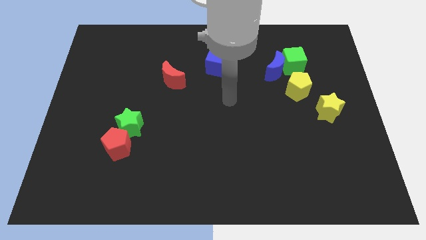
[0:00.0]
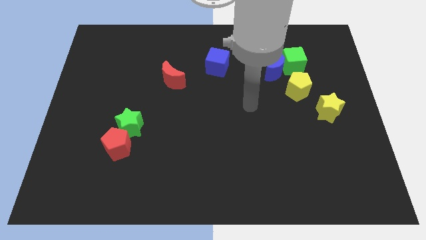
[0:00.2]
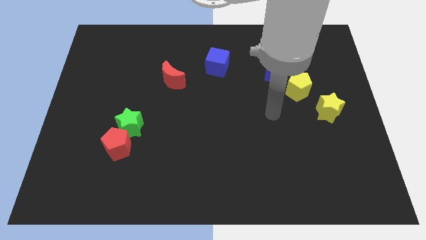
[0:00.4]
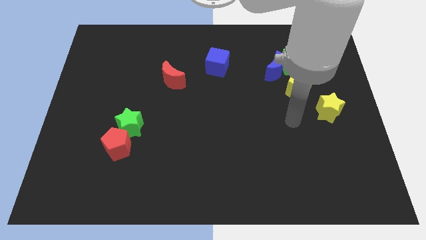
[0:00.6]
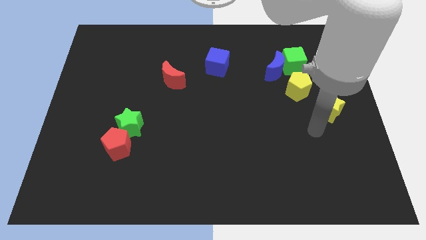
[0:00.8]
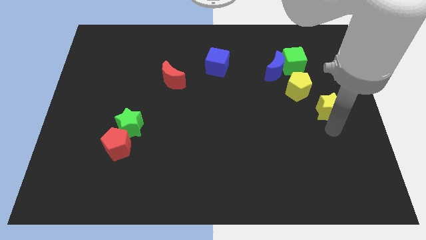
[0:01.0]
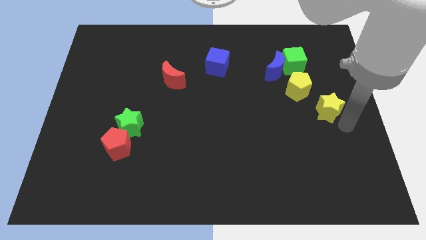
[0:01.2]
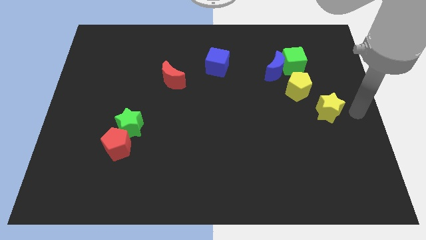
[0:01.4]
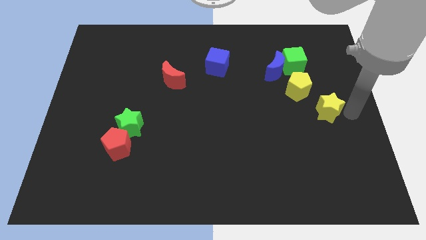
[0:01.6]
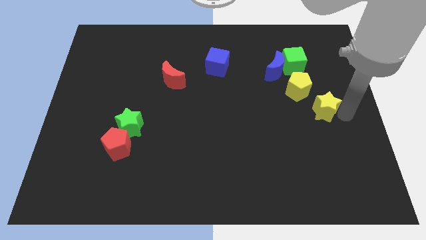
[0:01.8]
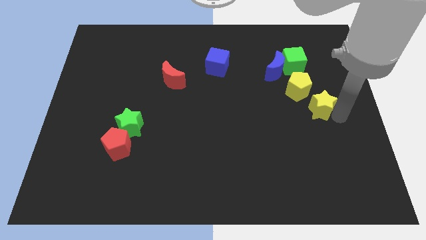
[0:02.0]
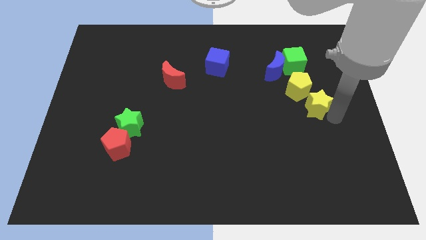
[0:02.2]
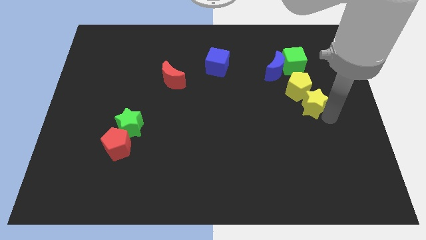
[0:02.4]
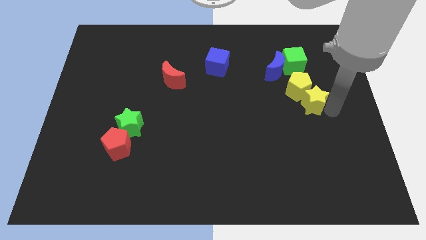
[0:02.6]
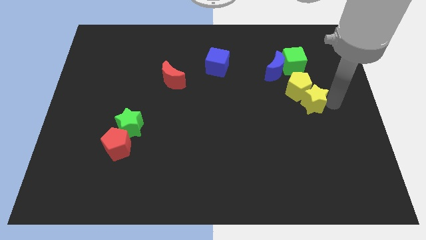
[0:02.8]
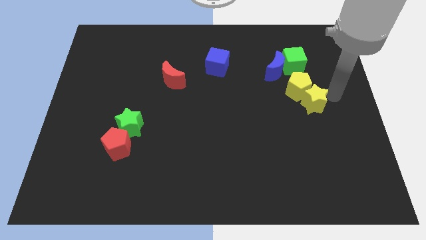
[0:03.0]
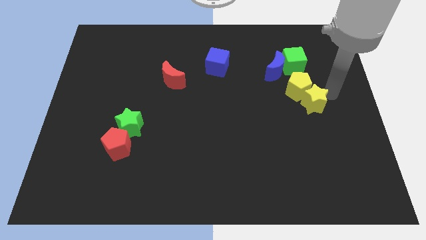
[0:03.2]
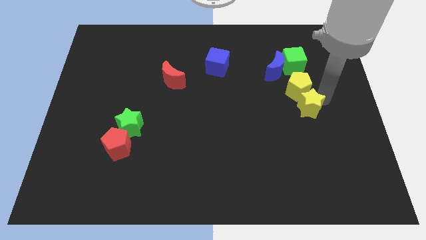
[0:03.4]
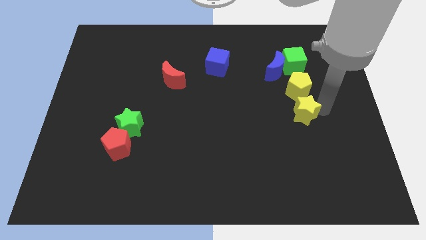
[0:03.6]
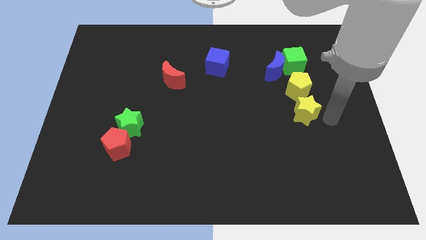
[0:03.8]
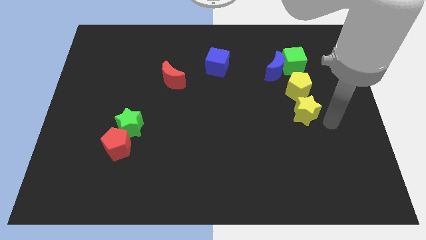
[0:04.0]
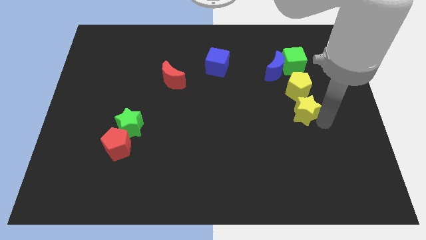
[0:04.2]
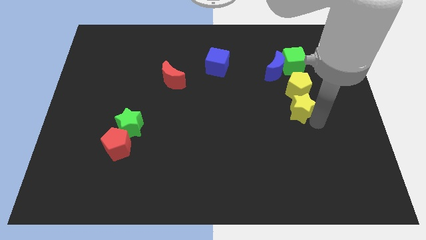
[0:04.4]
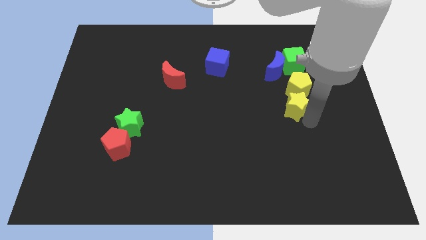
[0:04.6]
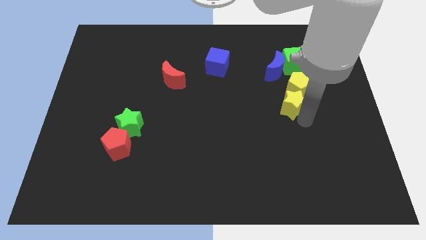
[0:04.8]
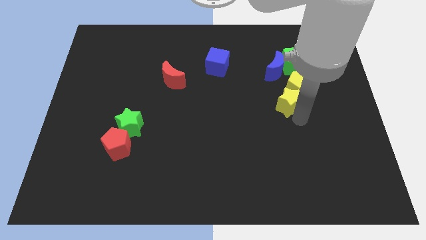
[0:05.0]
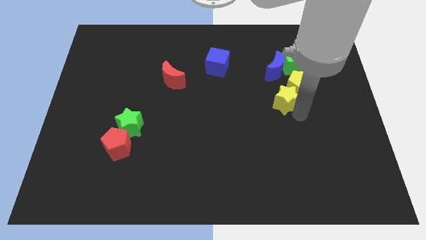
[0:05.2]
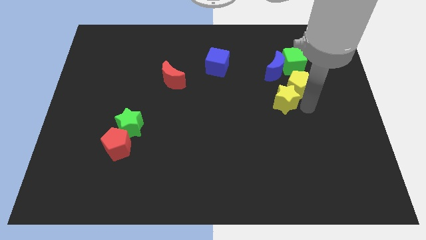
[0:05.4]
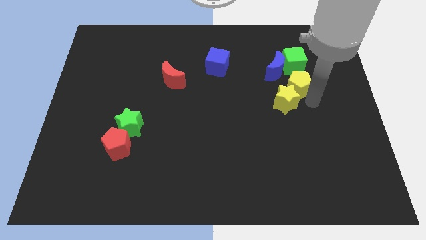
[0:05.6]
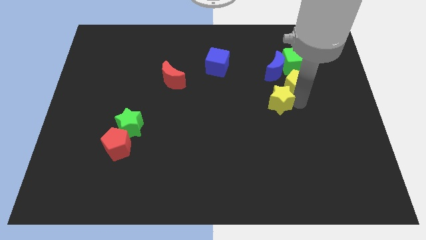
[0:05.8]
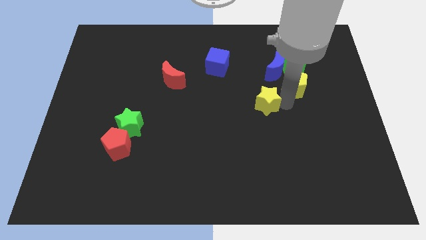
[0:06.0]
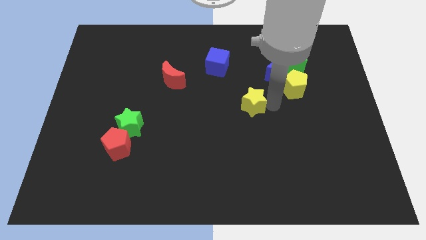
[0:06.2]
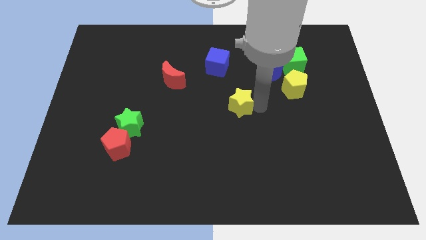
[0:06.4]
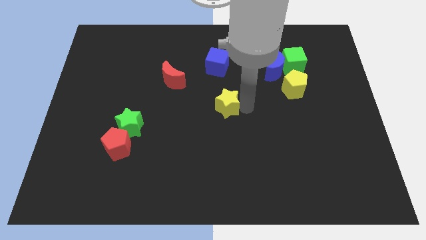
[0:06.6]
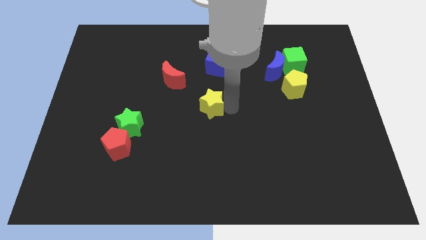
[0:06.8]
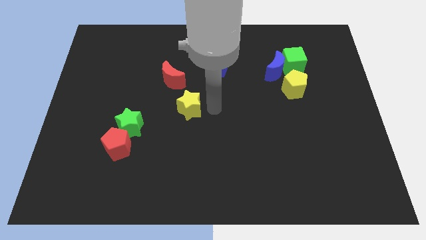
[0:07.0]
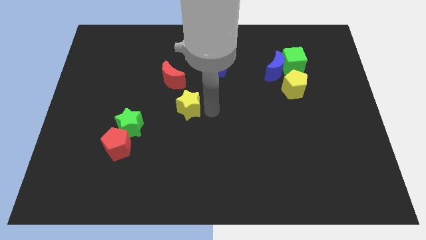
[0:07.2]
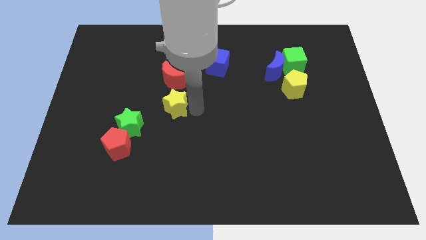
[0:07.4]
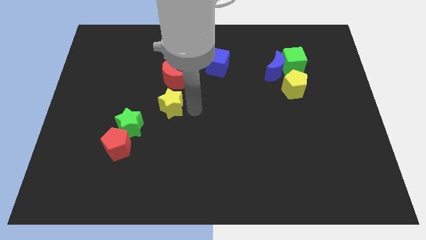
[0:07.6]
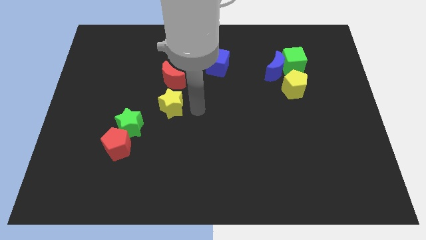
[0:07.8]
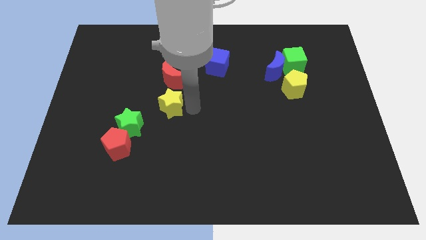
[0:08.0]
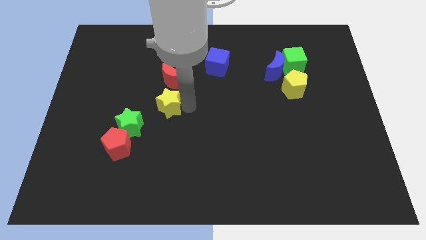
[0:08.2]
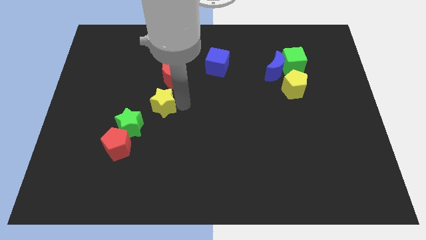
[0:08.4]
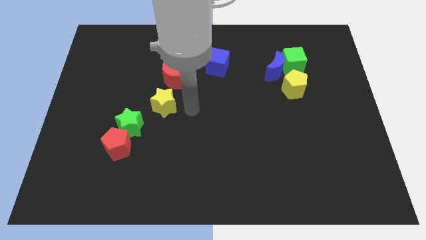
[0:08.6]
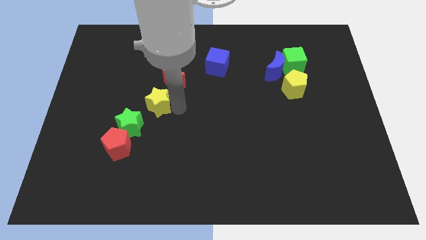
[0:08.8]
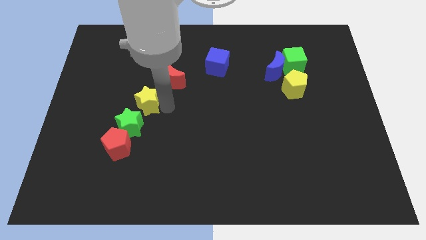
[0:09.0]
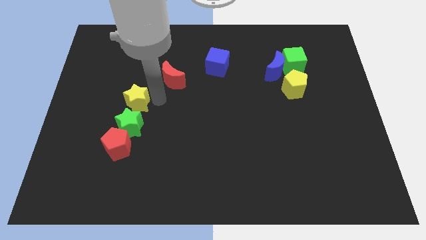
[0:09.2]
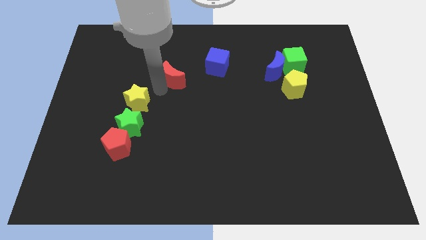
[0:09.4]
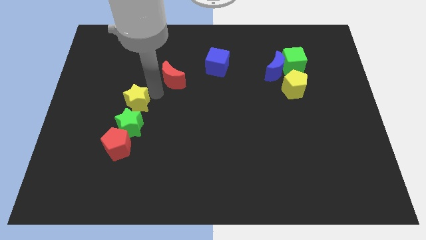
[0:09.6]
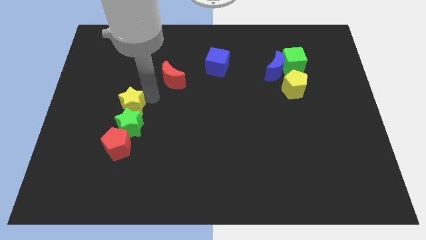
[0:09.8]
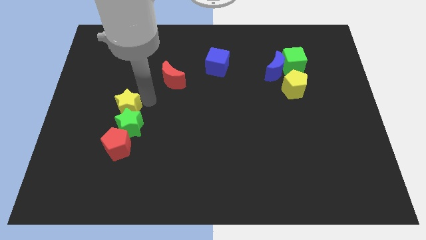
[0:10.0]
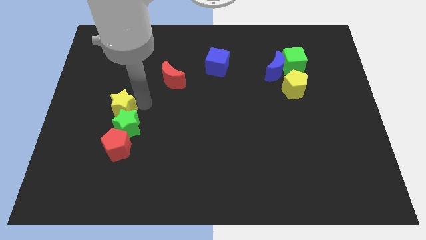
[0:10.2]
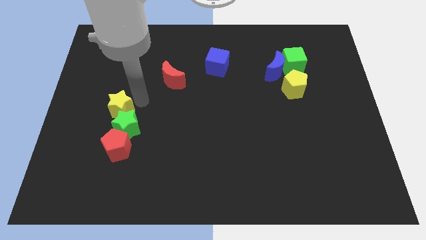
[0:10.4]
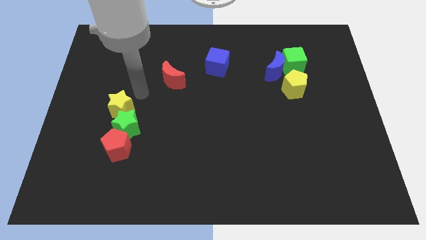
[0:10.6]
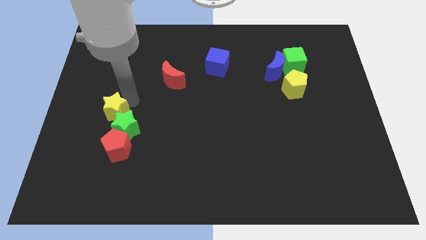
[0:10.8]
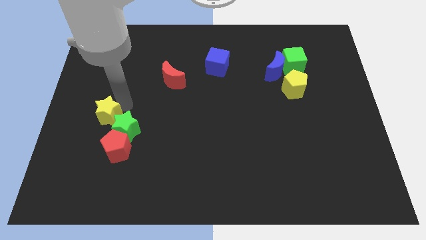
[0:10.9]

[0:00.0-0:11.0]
move the yellow star diagonally up and to the left of the red pentagon
